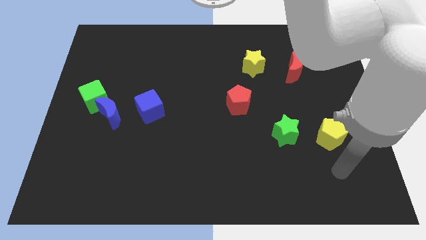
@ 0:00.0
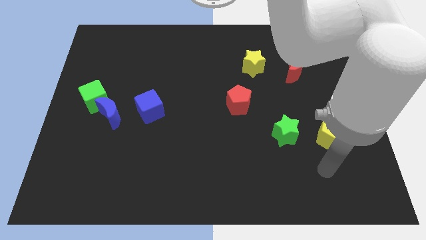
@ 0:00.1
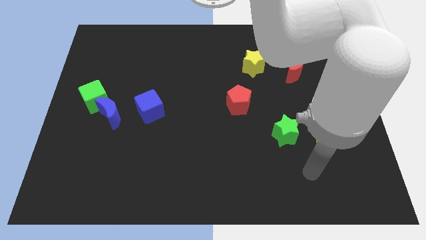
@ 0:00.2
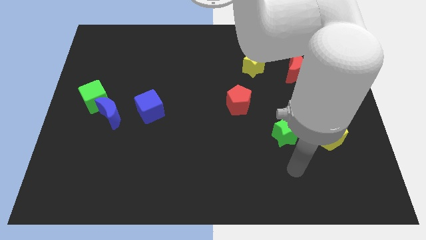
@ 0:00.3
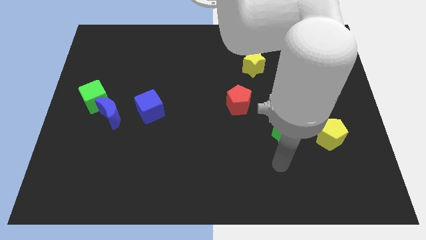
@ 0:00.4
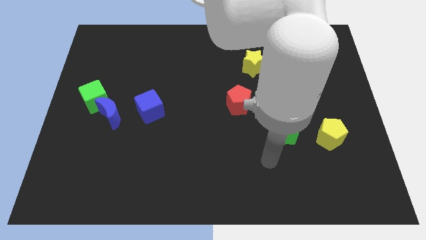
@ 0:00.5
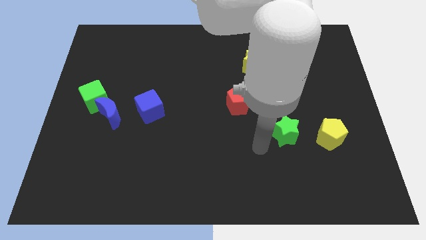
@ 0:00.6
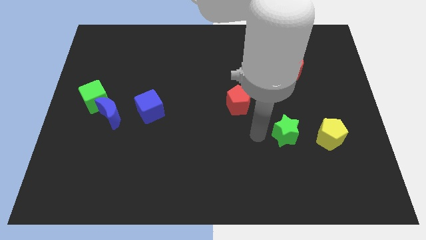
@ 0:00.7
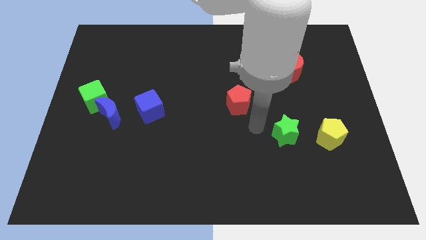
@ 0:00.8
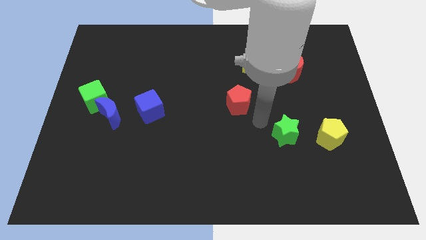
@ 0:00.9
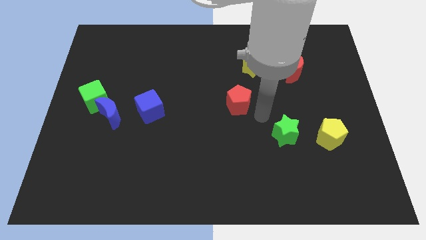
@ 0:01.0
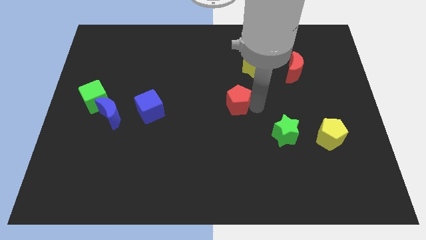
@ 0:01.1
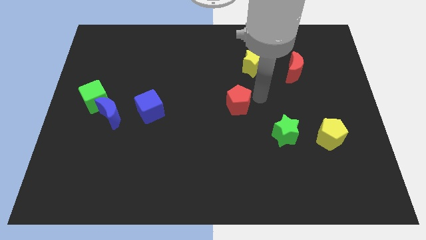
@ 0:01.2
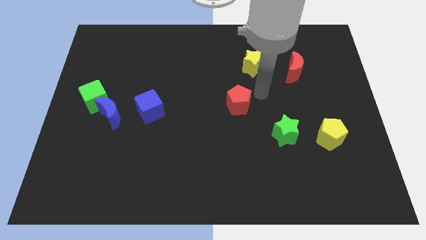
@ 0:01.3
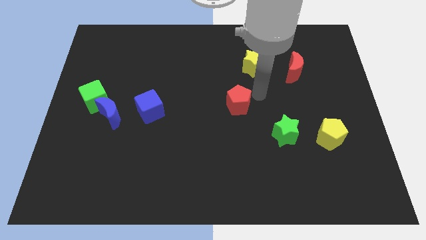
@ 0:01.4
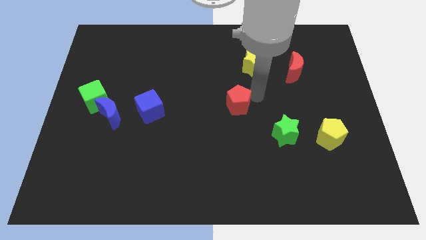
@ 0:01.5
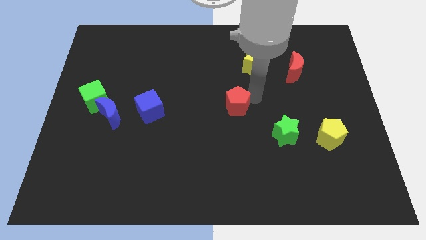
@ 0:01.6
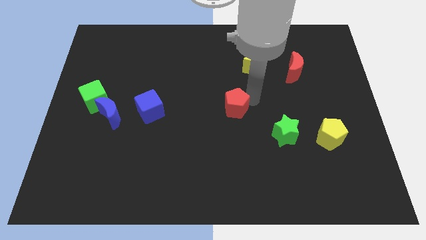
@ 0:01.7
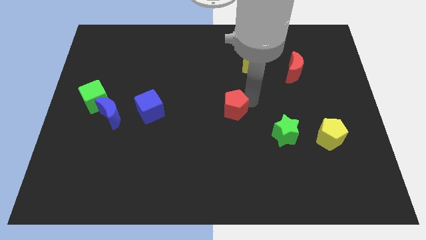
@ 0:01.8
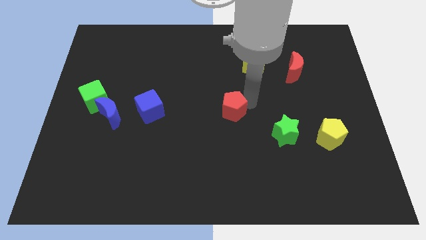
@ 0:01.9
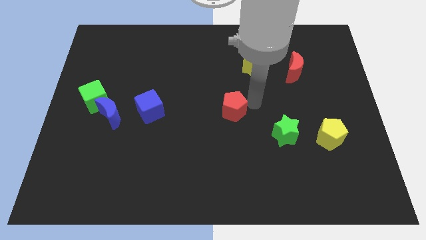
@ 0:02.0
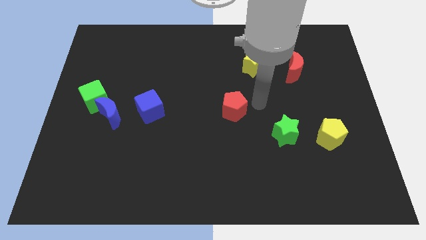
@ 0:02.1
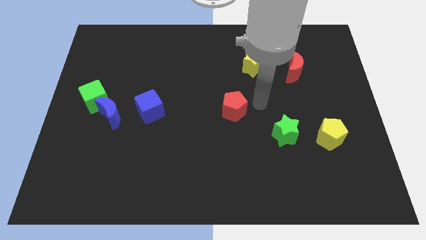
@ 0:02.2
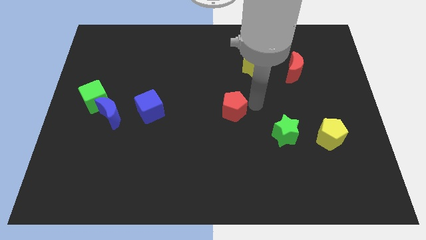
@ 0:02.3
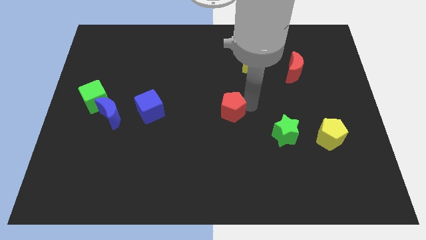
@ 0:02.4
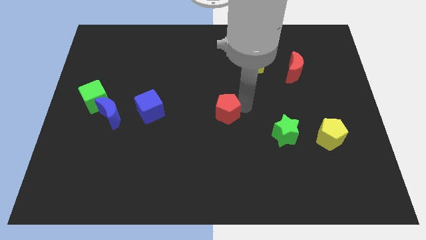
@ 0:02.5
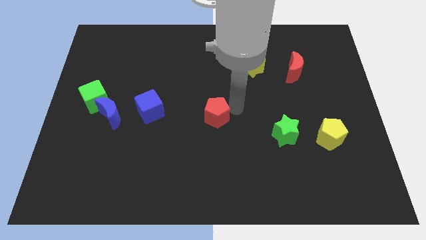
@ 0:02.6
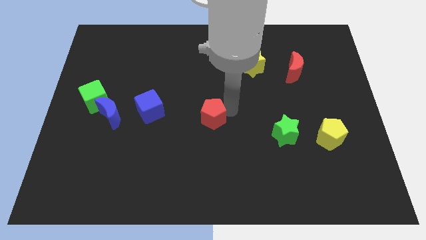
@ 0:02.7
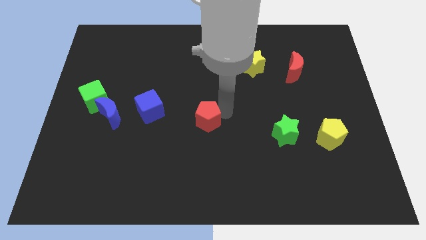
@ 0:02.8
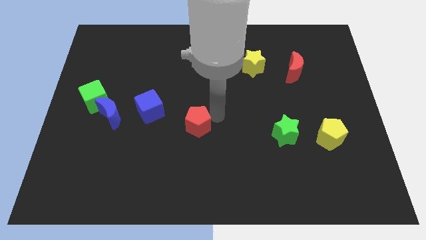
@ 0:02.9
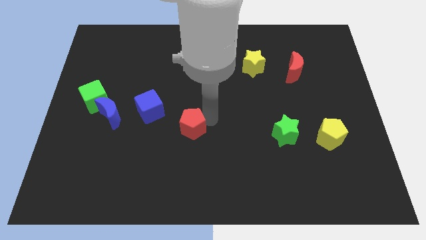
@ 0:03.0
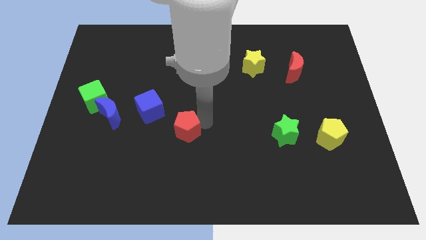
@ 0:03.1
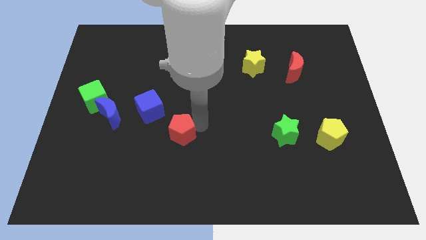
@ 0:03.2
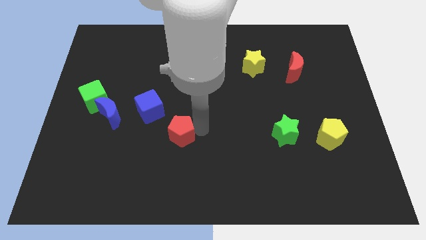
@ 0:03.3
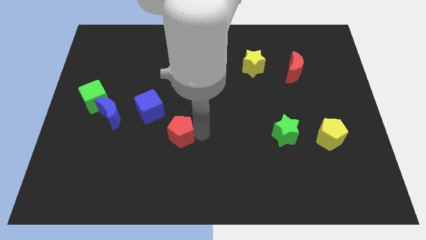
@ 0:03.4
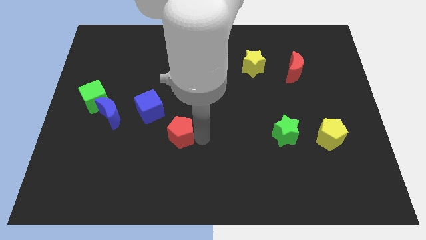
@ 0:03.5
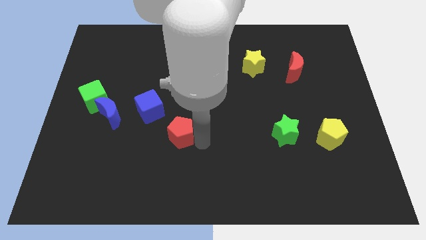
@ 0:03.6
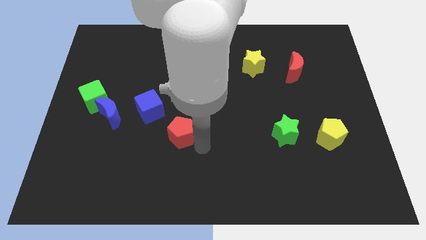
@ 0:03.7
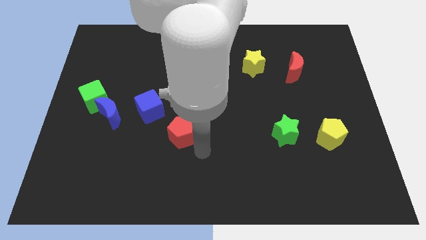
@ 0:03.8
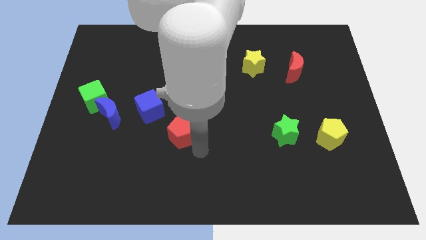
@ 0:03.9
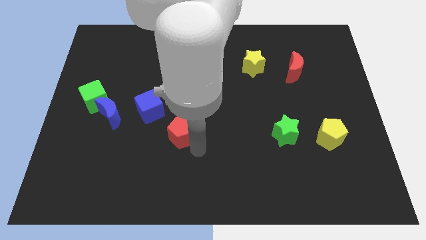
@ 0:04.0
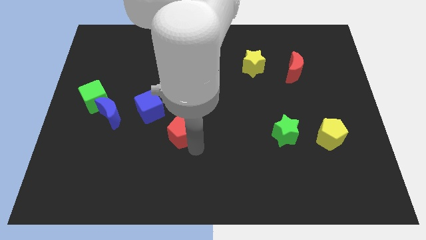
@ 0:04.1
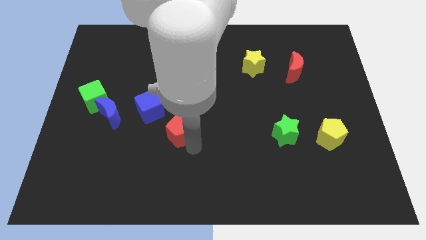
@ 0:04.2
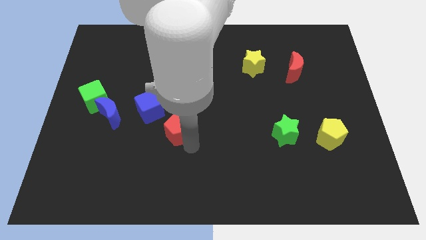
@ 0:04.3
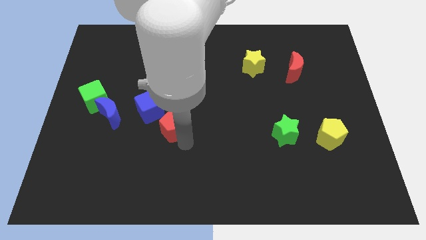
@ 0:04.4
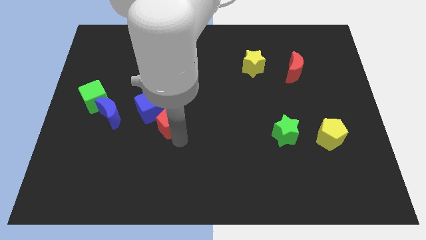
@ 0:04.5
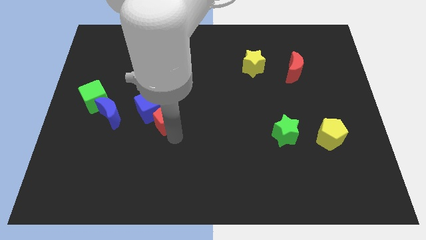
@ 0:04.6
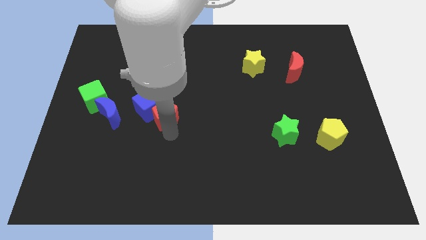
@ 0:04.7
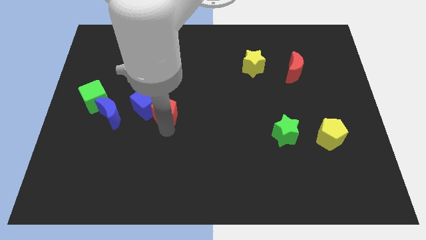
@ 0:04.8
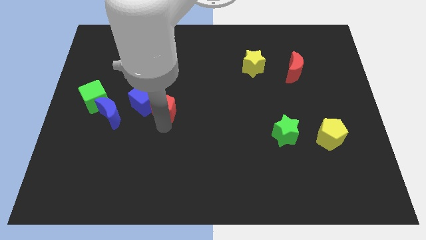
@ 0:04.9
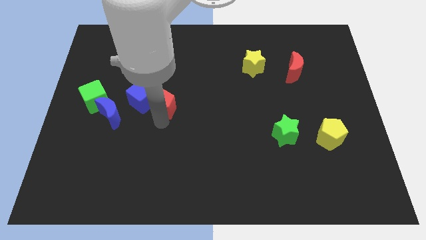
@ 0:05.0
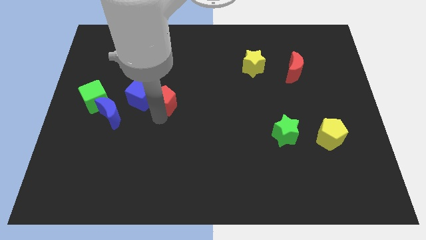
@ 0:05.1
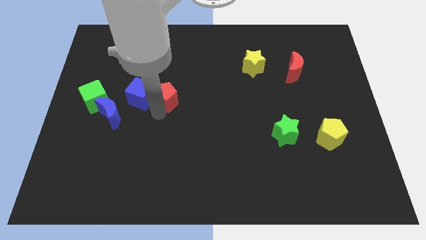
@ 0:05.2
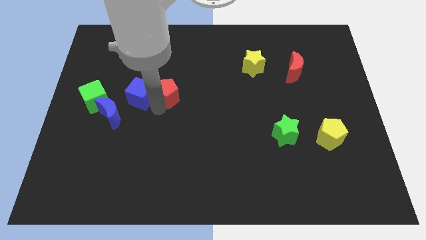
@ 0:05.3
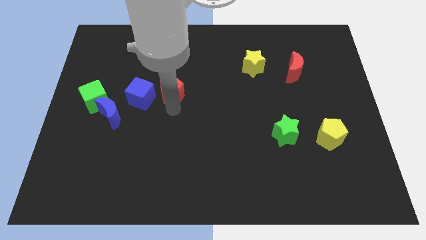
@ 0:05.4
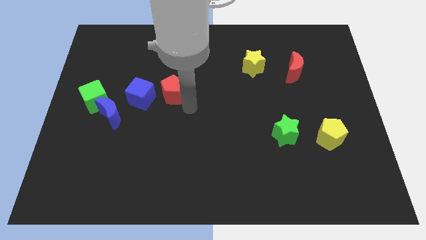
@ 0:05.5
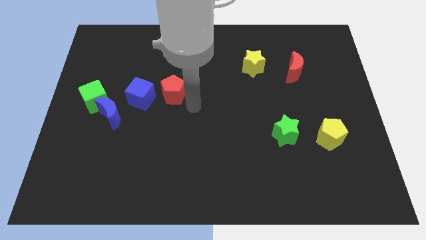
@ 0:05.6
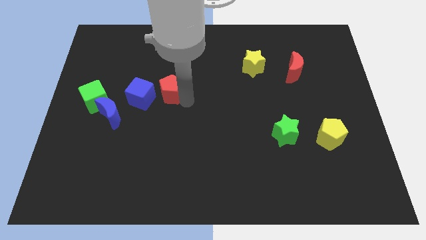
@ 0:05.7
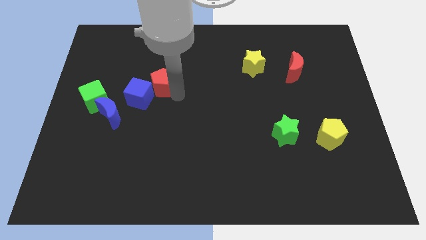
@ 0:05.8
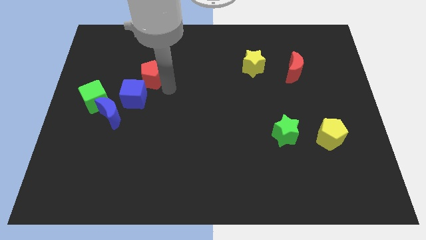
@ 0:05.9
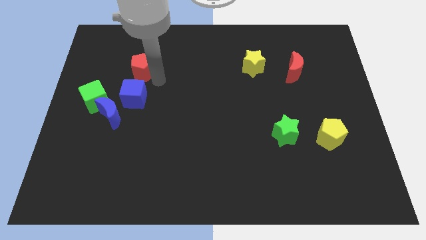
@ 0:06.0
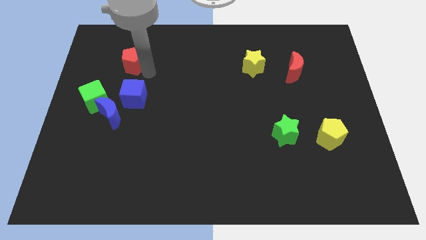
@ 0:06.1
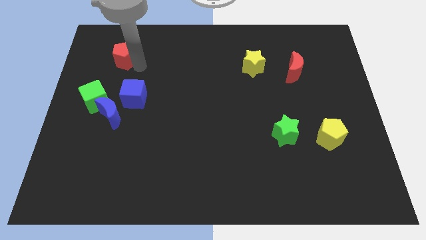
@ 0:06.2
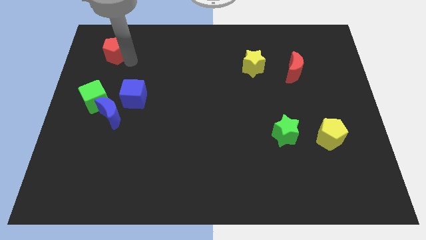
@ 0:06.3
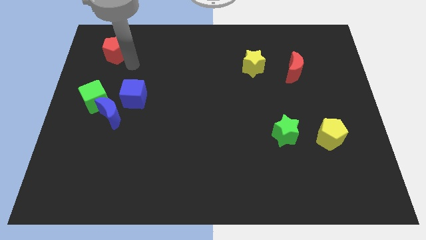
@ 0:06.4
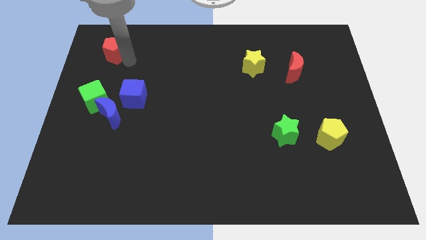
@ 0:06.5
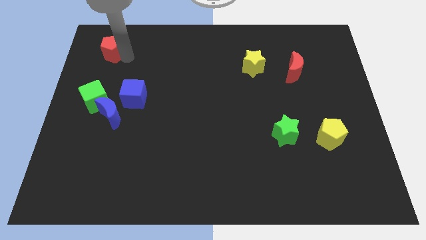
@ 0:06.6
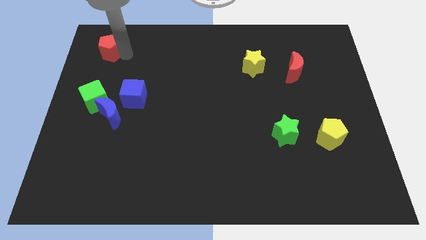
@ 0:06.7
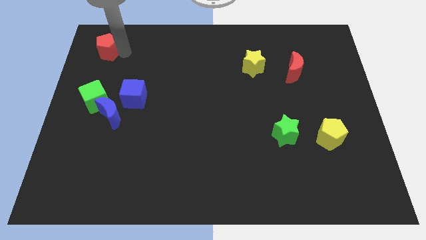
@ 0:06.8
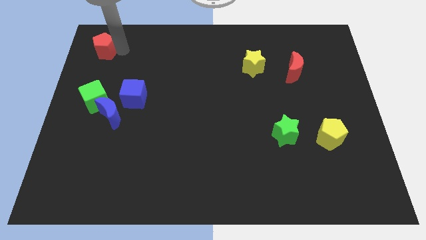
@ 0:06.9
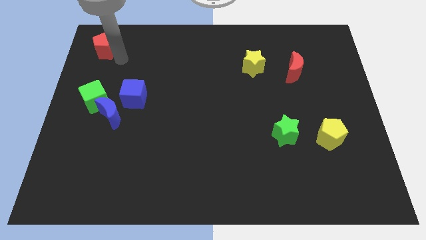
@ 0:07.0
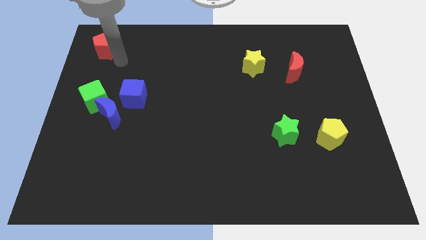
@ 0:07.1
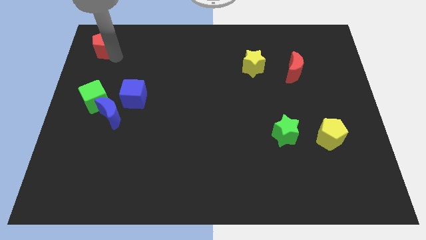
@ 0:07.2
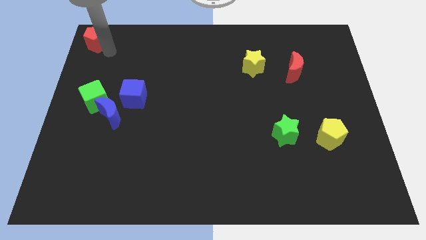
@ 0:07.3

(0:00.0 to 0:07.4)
slide the red pentagon to the top left corner
